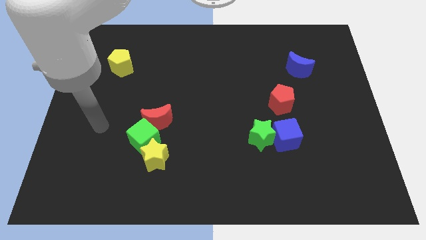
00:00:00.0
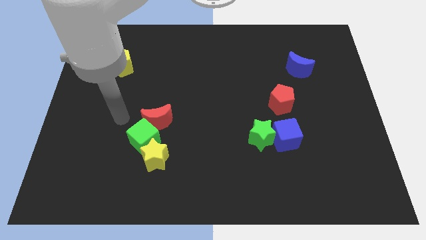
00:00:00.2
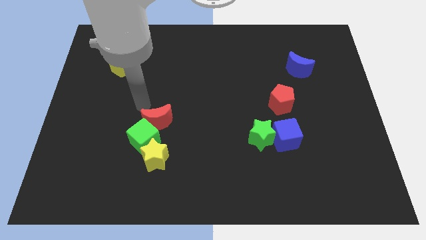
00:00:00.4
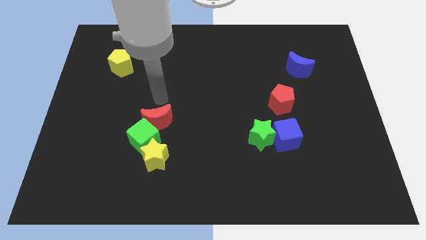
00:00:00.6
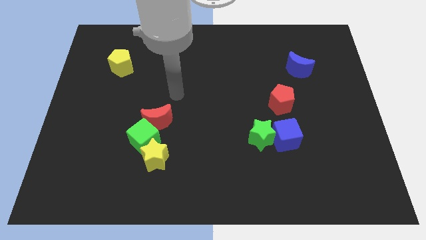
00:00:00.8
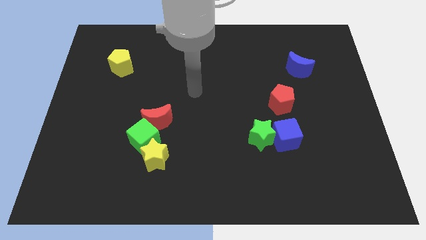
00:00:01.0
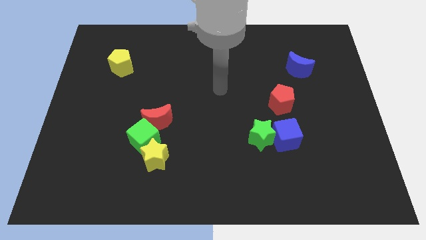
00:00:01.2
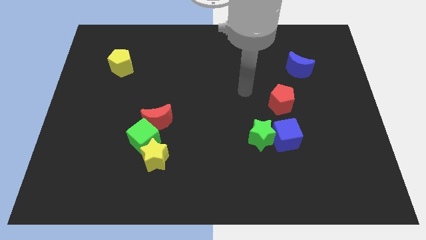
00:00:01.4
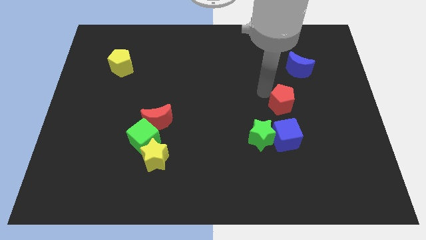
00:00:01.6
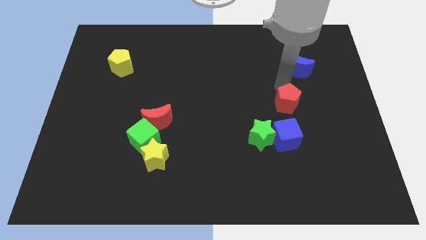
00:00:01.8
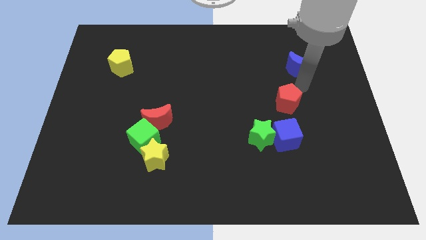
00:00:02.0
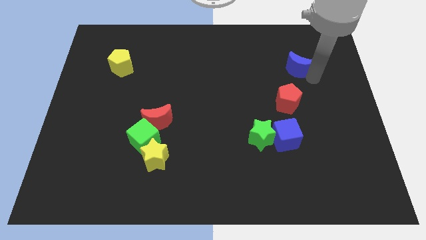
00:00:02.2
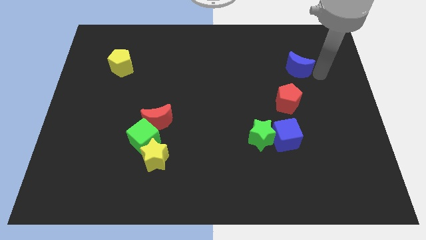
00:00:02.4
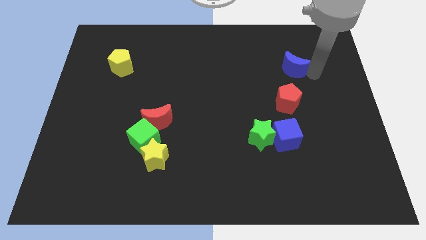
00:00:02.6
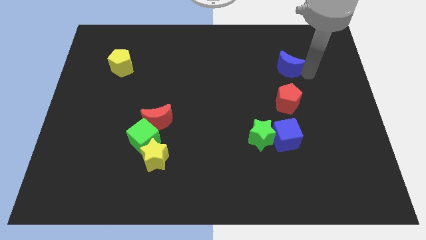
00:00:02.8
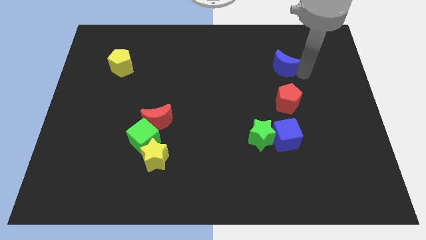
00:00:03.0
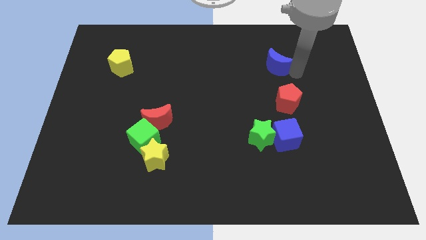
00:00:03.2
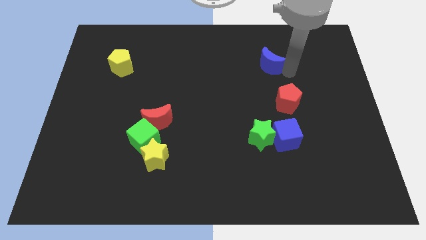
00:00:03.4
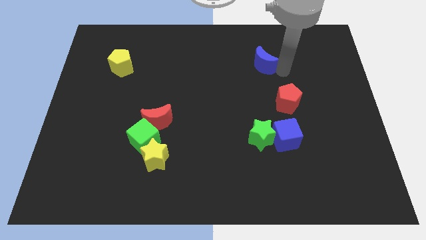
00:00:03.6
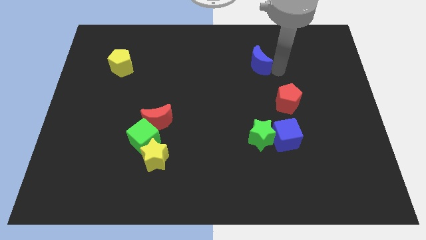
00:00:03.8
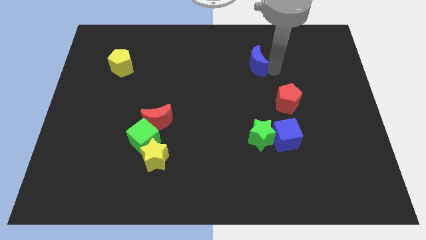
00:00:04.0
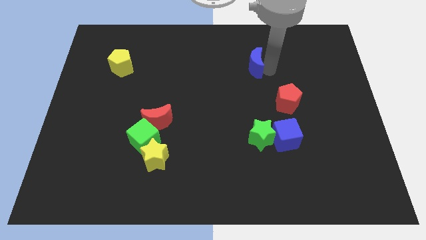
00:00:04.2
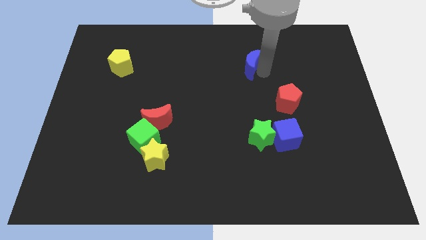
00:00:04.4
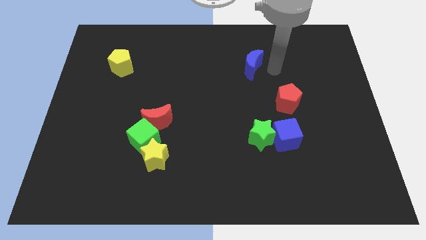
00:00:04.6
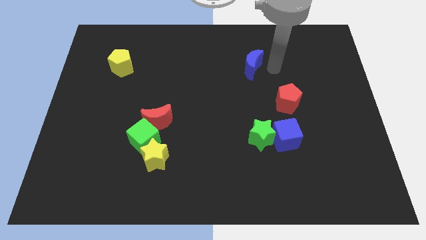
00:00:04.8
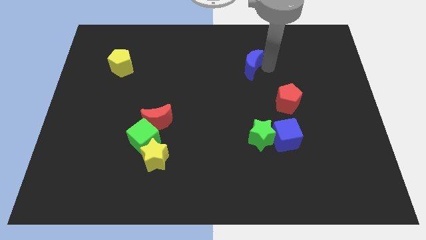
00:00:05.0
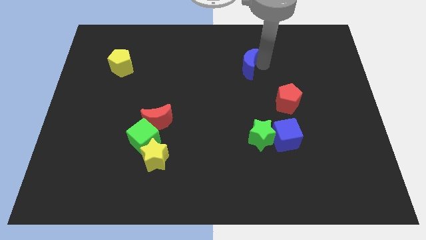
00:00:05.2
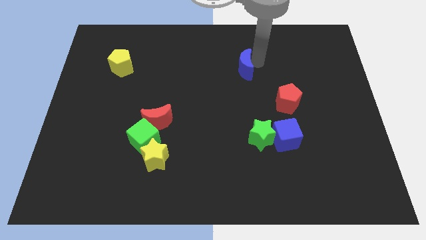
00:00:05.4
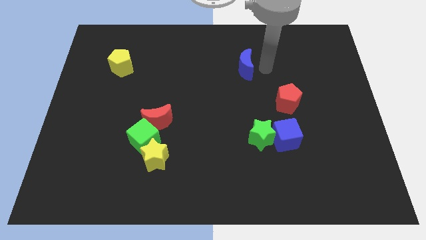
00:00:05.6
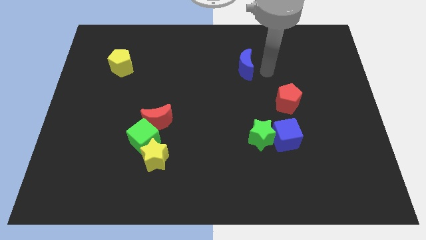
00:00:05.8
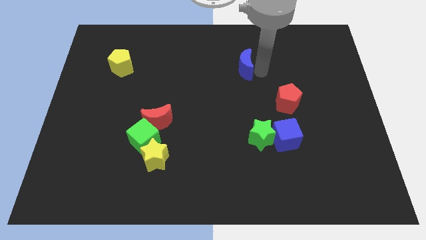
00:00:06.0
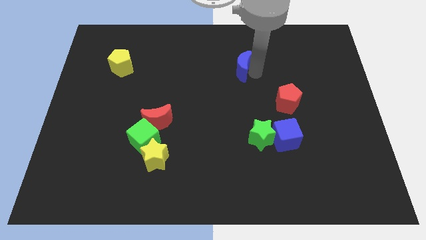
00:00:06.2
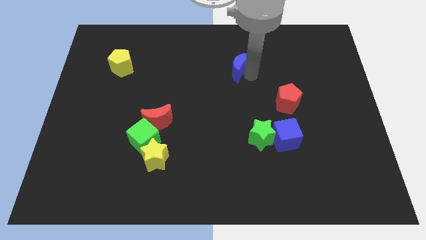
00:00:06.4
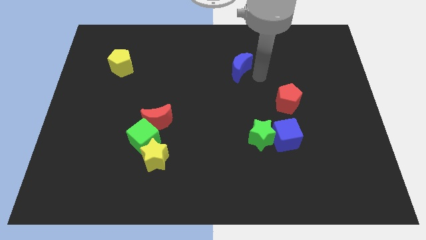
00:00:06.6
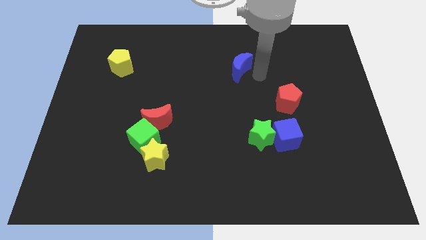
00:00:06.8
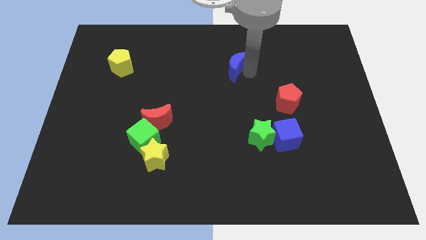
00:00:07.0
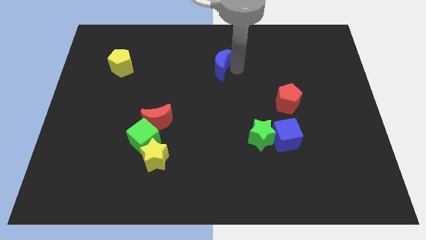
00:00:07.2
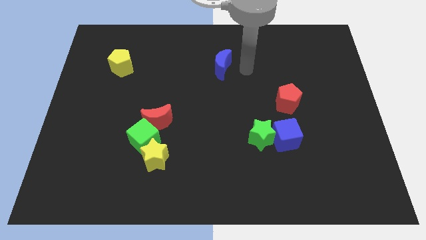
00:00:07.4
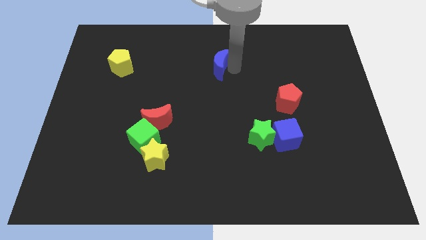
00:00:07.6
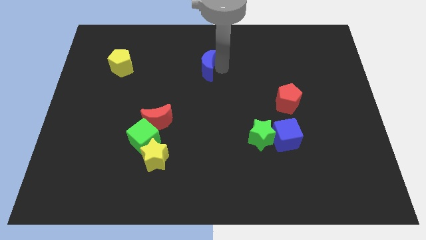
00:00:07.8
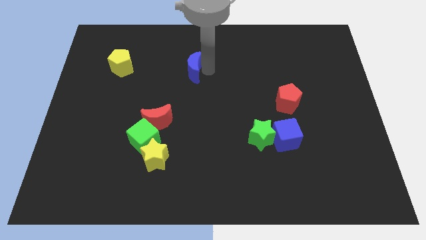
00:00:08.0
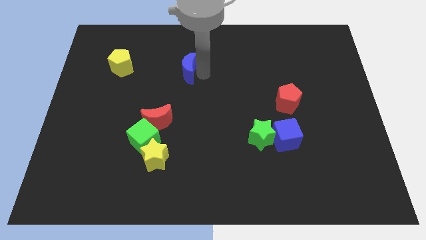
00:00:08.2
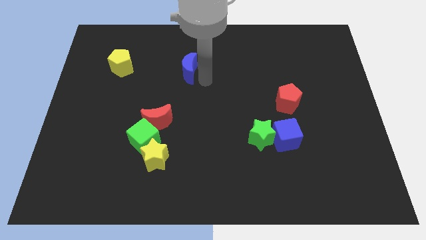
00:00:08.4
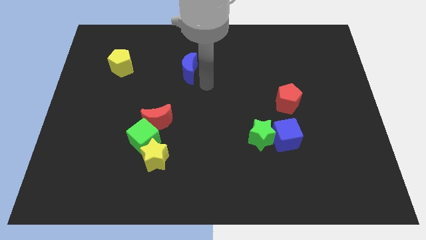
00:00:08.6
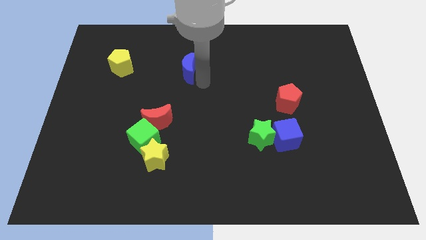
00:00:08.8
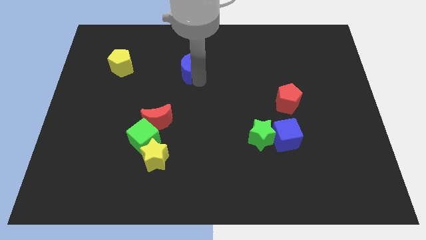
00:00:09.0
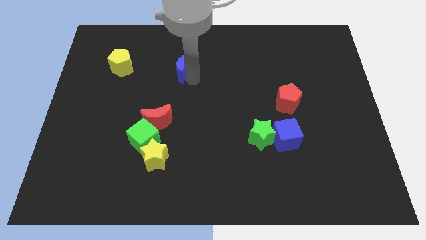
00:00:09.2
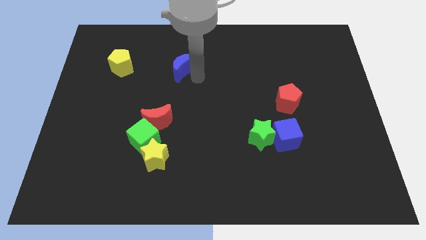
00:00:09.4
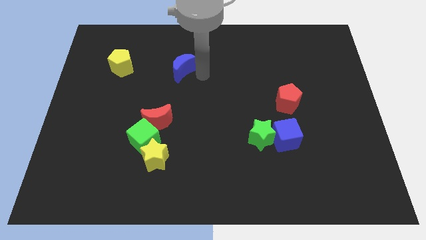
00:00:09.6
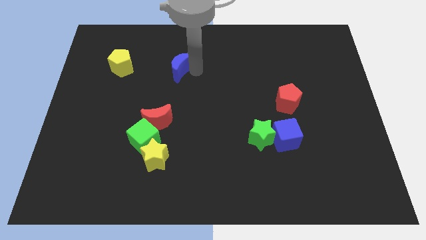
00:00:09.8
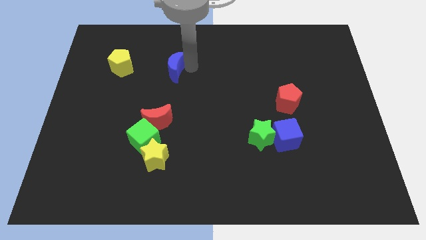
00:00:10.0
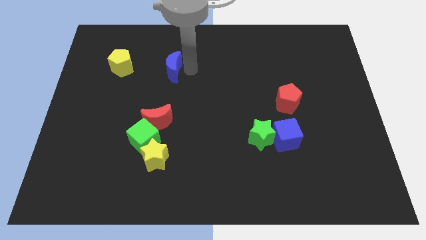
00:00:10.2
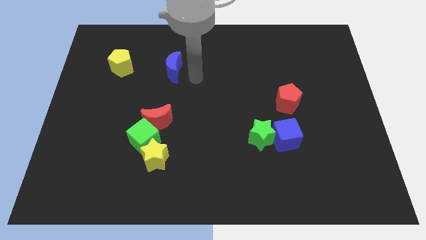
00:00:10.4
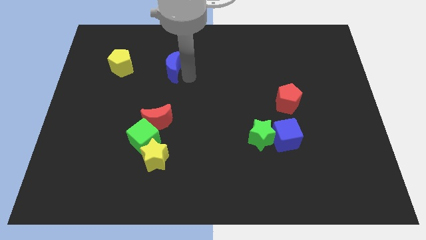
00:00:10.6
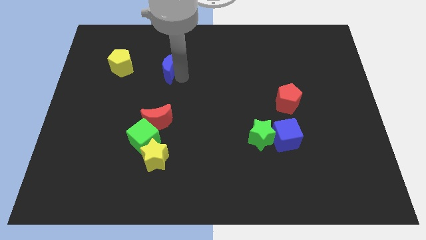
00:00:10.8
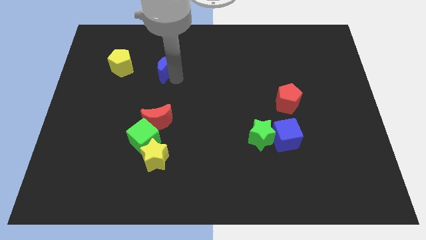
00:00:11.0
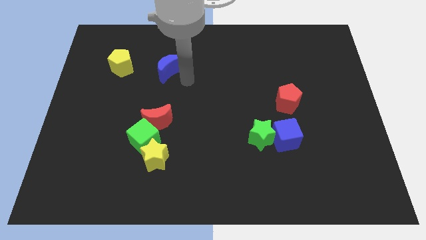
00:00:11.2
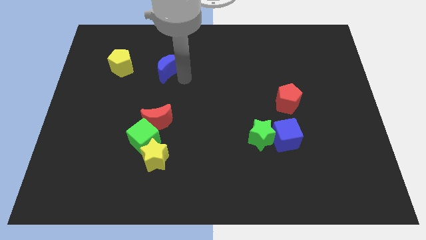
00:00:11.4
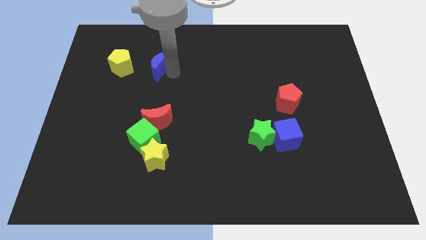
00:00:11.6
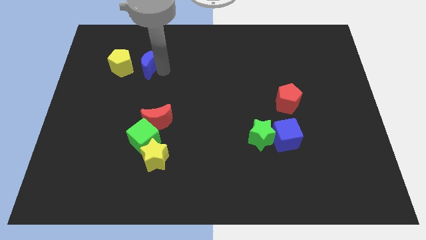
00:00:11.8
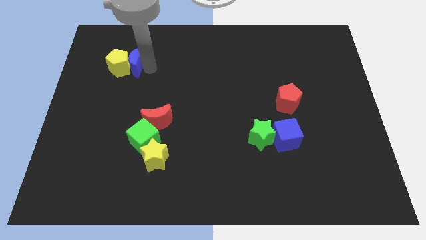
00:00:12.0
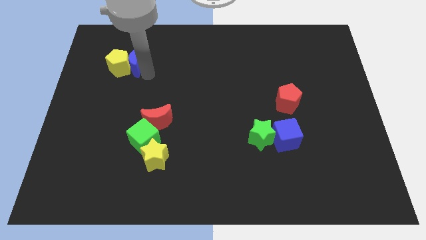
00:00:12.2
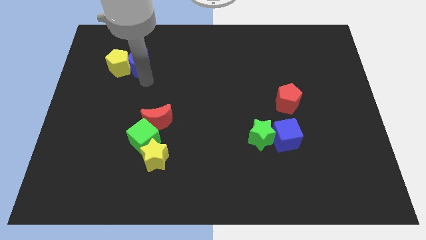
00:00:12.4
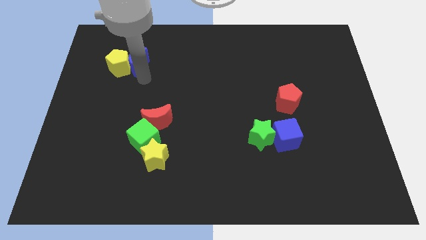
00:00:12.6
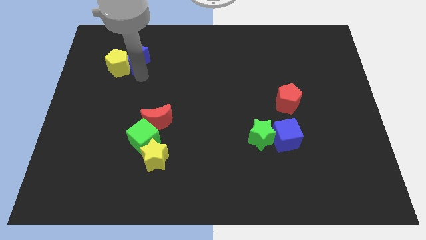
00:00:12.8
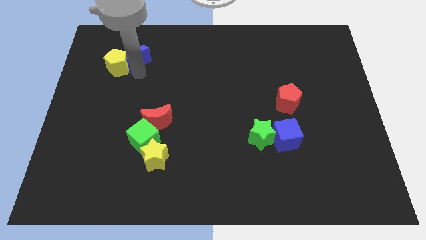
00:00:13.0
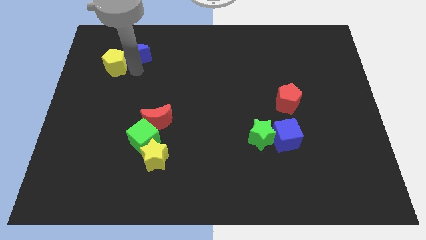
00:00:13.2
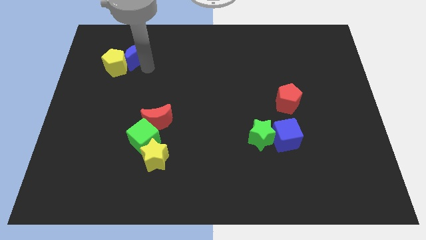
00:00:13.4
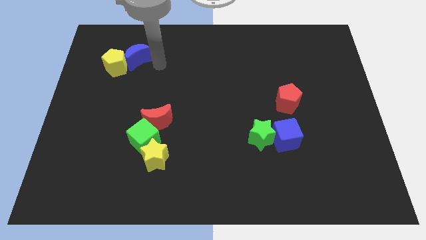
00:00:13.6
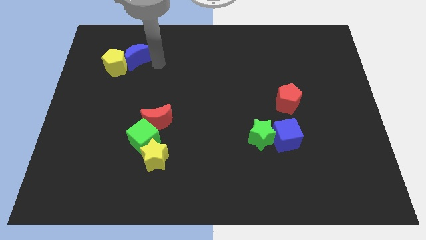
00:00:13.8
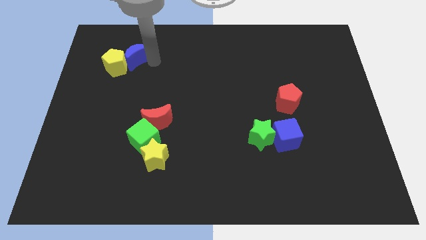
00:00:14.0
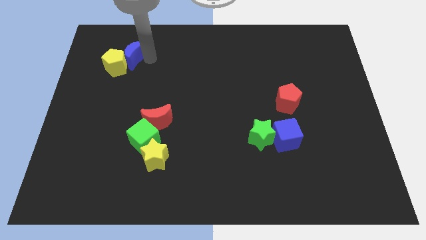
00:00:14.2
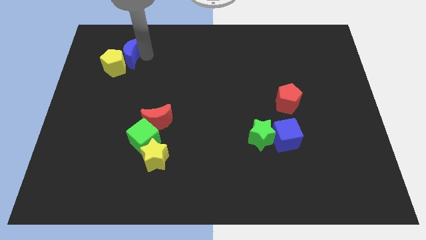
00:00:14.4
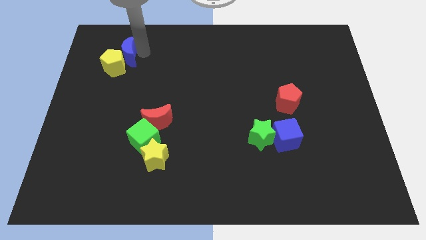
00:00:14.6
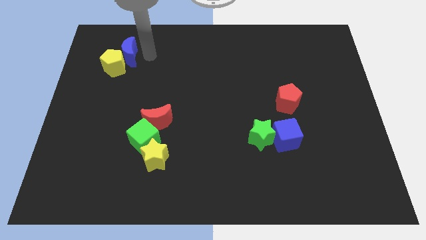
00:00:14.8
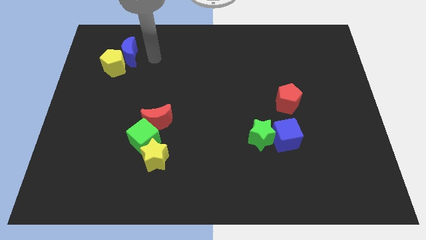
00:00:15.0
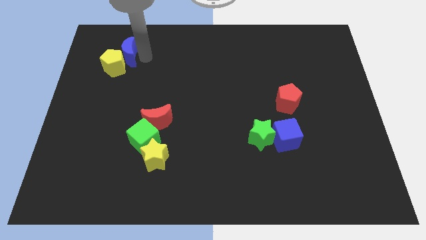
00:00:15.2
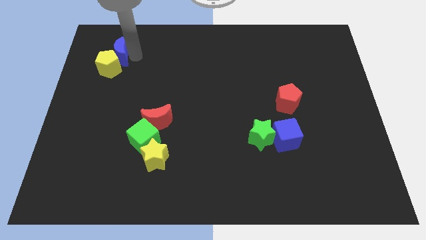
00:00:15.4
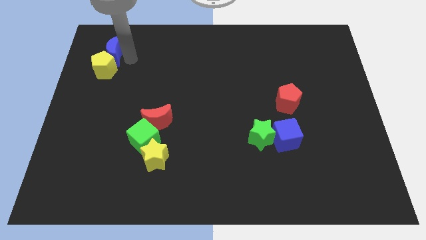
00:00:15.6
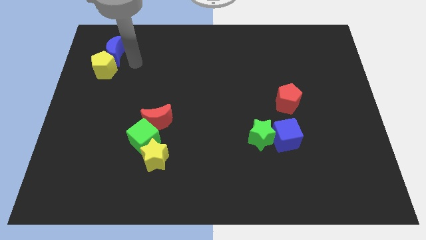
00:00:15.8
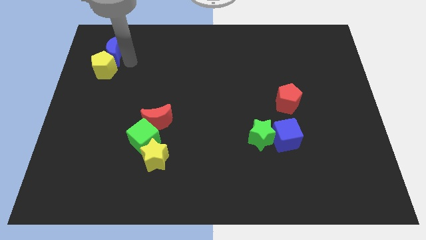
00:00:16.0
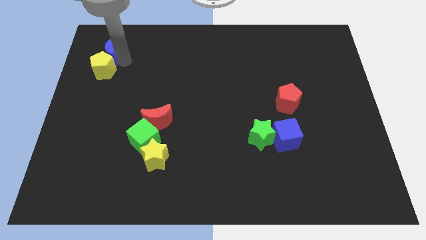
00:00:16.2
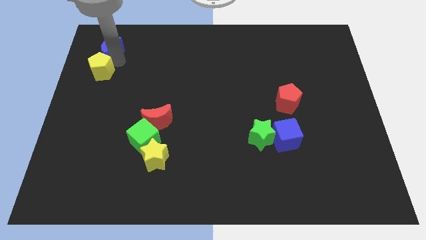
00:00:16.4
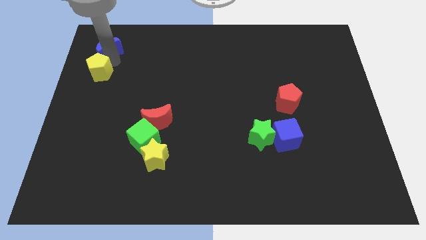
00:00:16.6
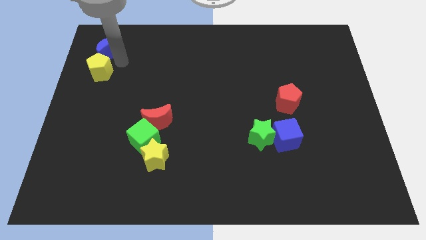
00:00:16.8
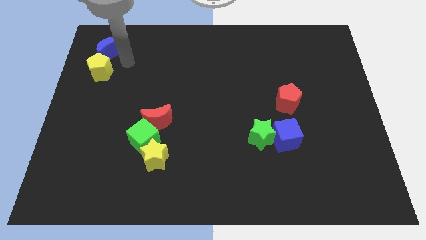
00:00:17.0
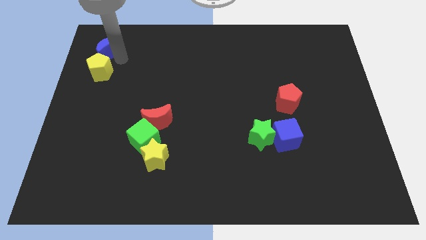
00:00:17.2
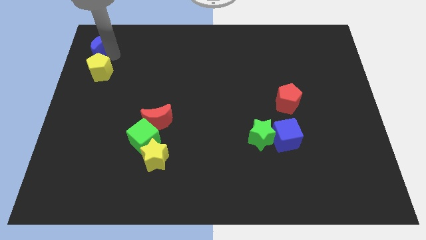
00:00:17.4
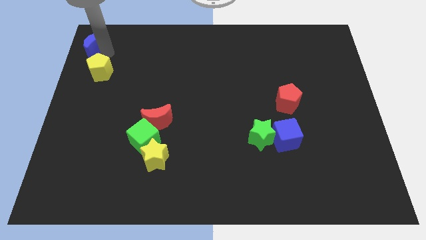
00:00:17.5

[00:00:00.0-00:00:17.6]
slide the blue moon to the upper left corner
